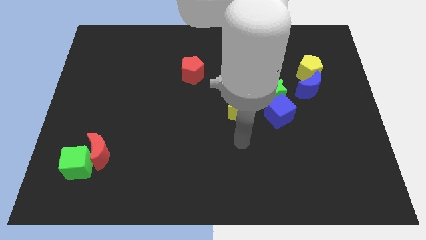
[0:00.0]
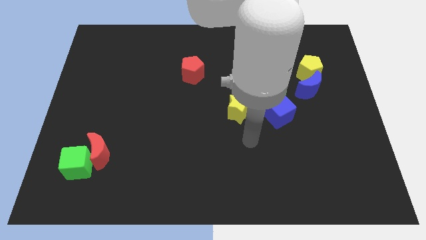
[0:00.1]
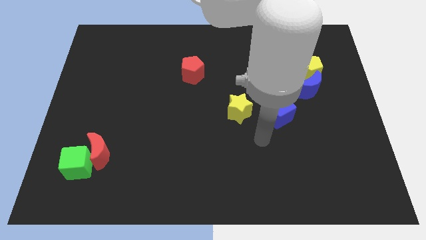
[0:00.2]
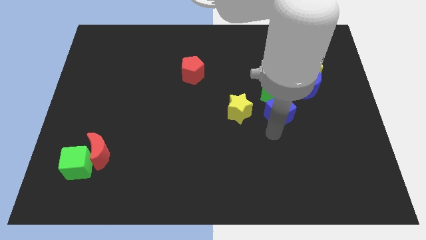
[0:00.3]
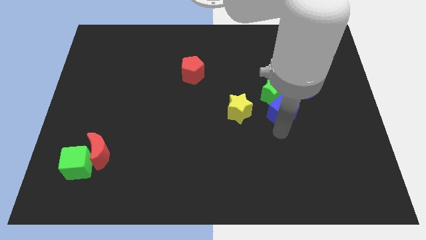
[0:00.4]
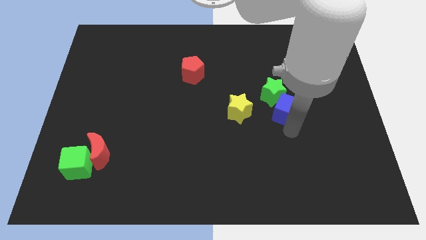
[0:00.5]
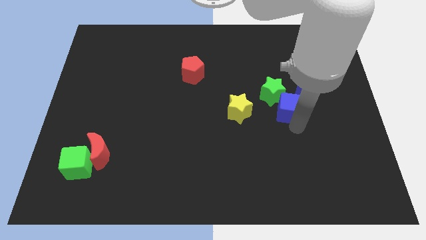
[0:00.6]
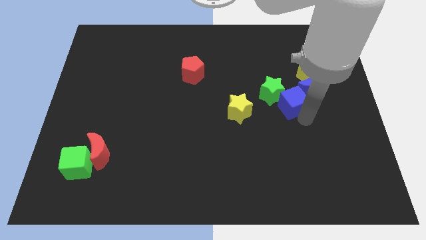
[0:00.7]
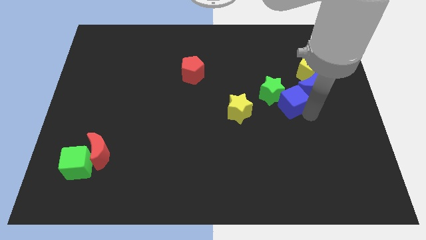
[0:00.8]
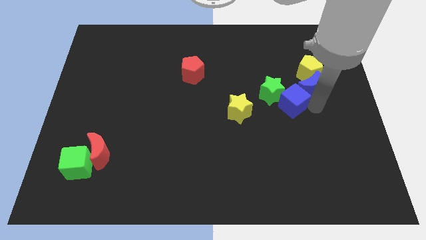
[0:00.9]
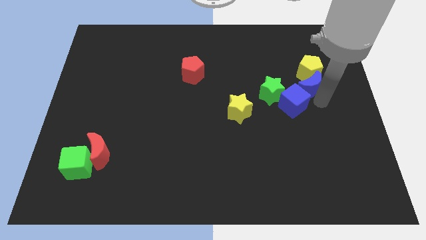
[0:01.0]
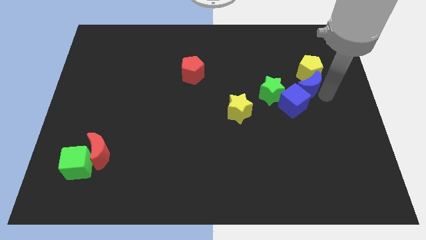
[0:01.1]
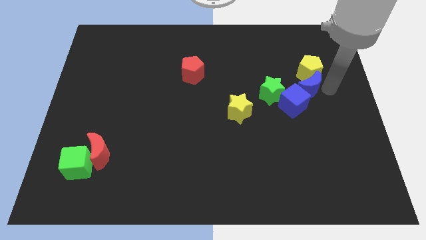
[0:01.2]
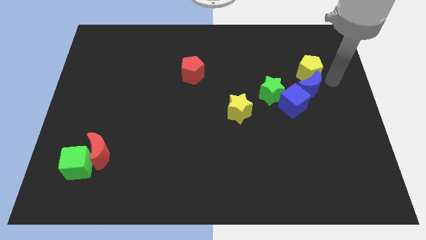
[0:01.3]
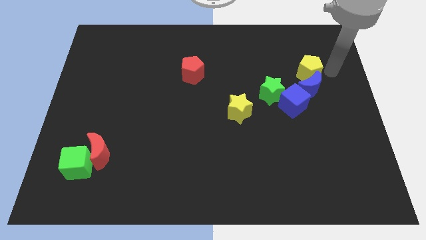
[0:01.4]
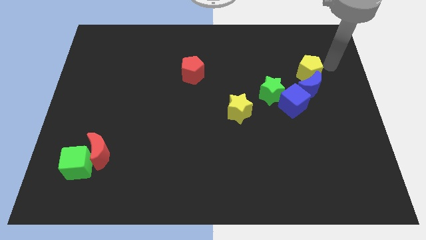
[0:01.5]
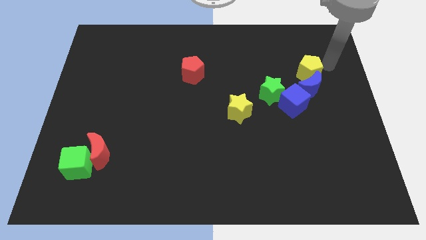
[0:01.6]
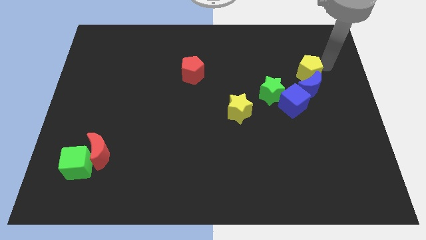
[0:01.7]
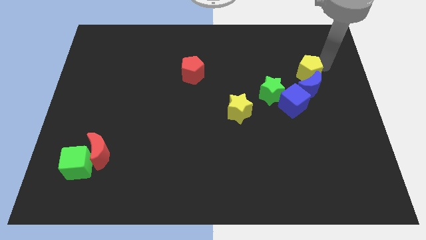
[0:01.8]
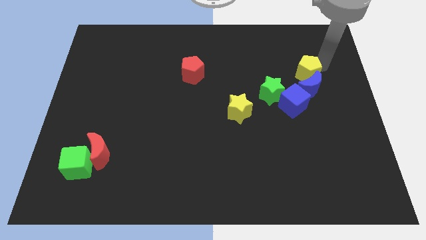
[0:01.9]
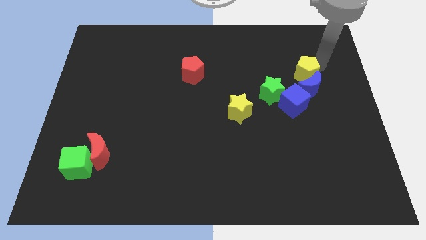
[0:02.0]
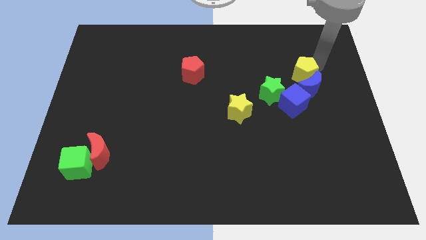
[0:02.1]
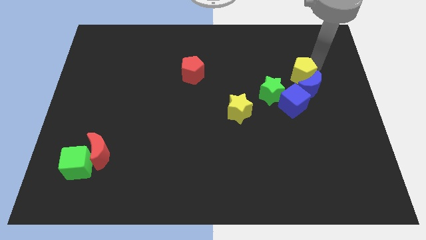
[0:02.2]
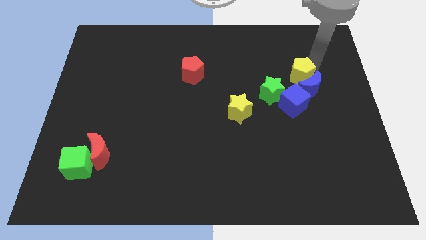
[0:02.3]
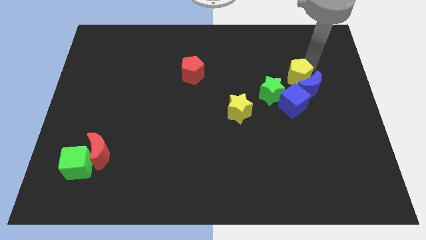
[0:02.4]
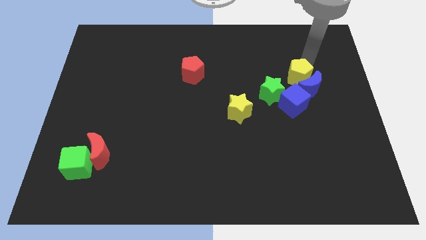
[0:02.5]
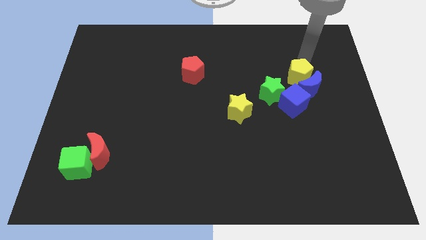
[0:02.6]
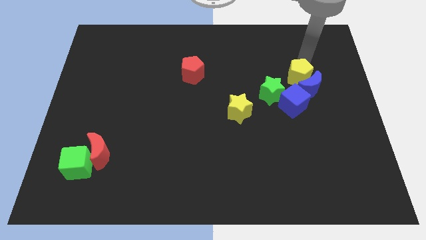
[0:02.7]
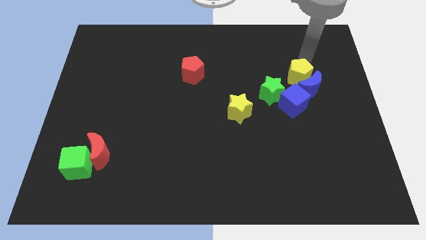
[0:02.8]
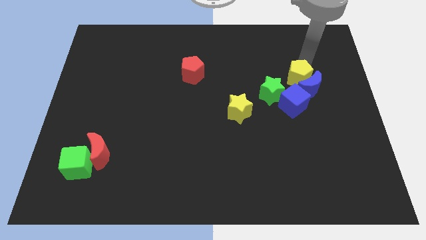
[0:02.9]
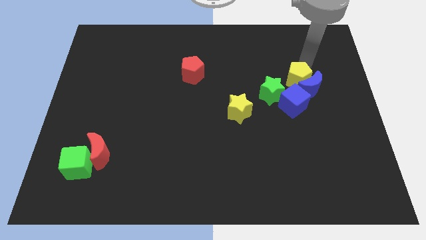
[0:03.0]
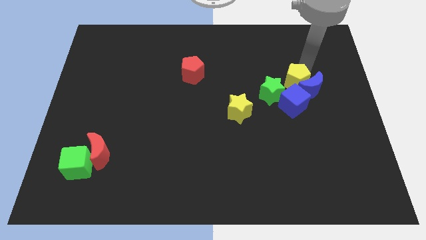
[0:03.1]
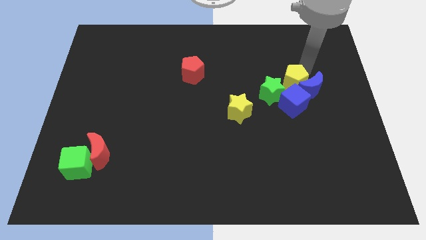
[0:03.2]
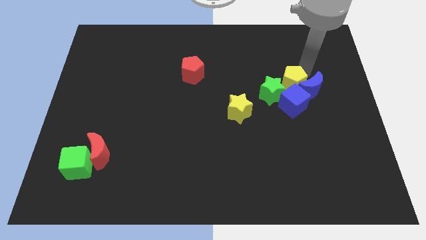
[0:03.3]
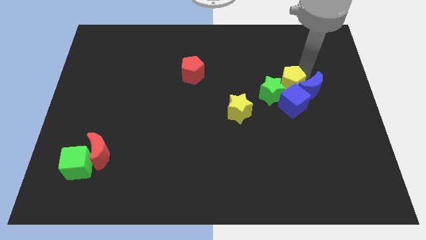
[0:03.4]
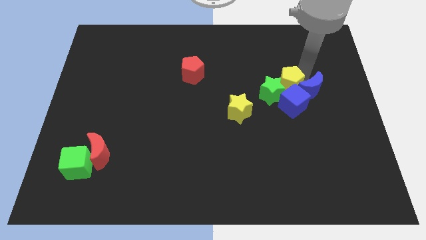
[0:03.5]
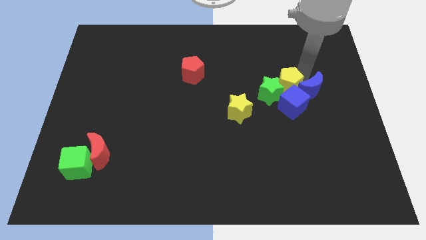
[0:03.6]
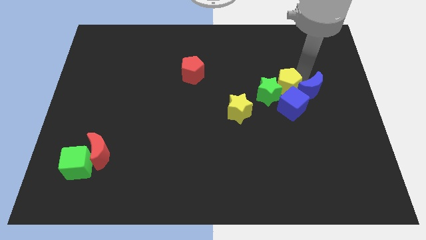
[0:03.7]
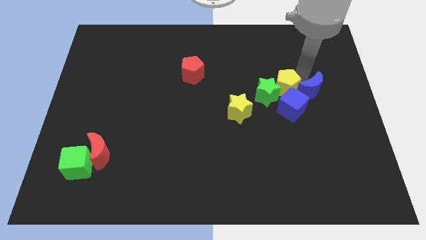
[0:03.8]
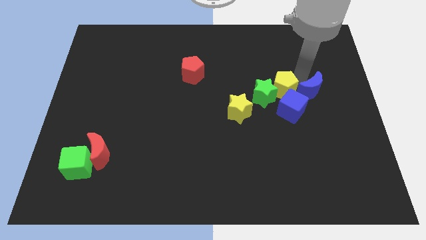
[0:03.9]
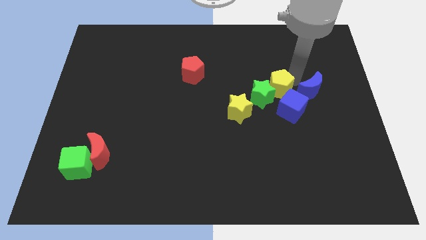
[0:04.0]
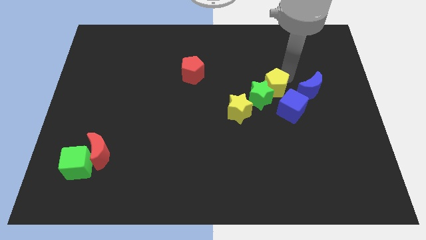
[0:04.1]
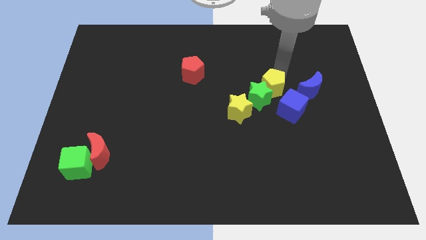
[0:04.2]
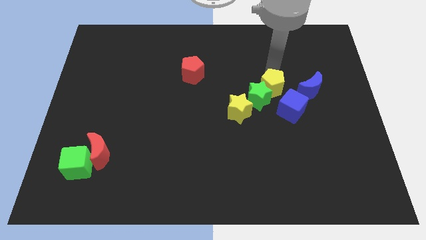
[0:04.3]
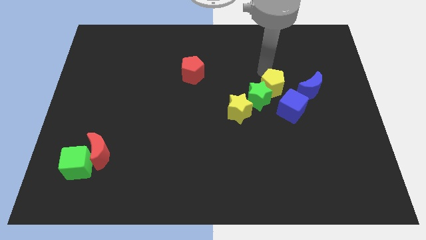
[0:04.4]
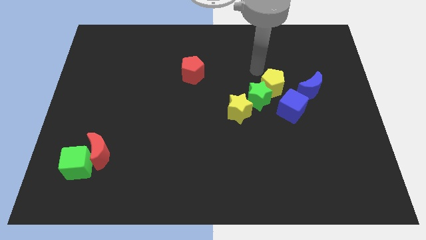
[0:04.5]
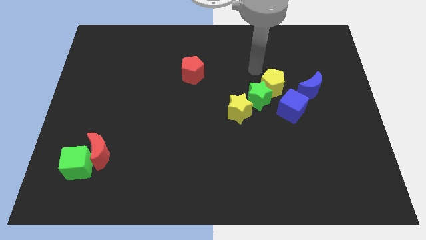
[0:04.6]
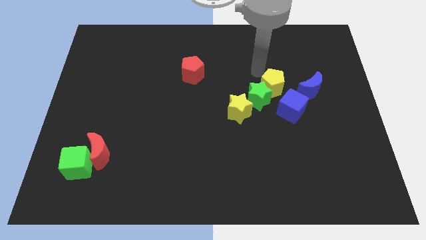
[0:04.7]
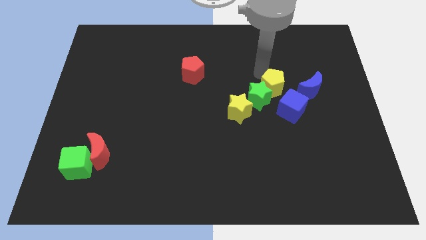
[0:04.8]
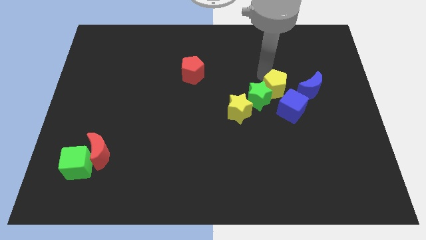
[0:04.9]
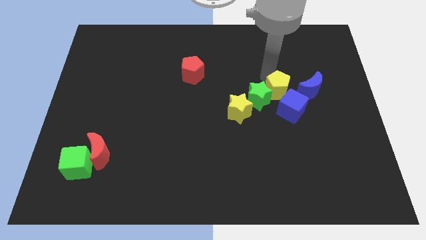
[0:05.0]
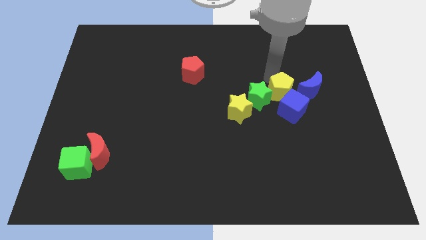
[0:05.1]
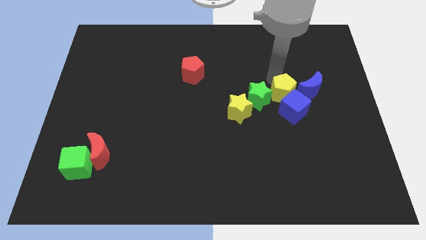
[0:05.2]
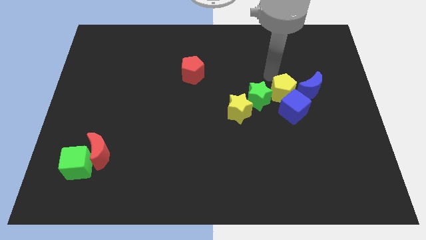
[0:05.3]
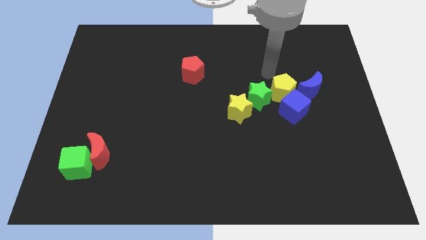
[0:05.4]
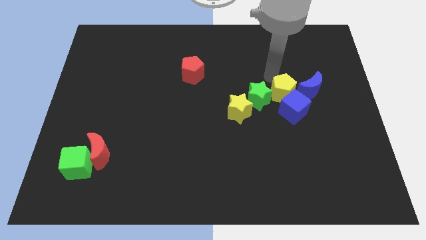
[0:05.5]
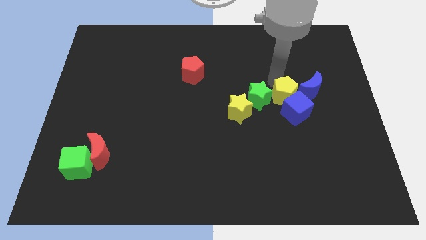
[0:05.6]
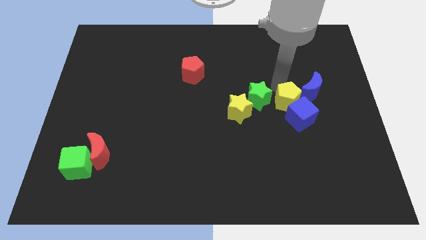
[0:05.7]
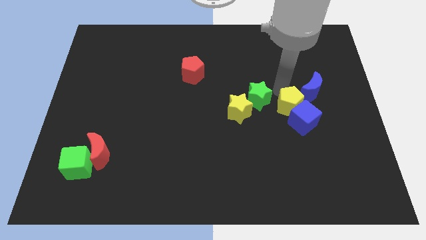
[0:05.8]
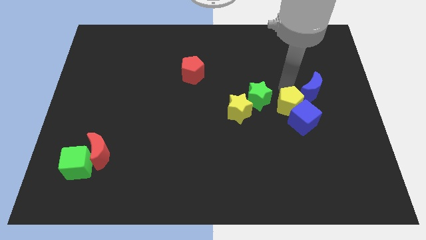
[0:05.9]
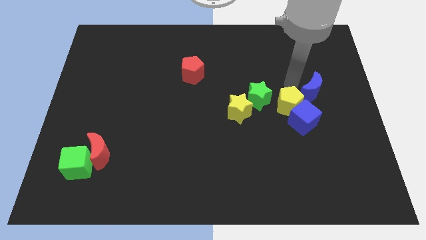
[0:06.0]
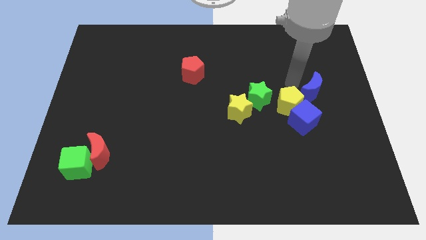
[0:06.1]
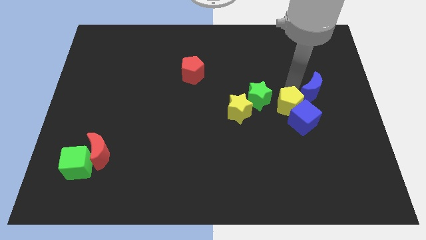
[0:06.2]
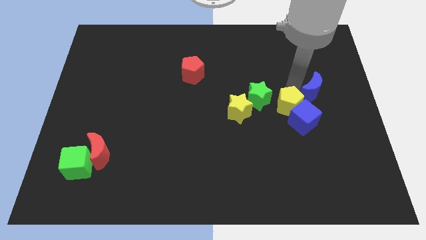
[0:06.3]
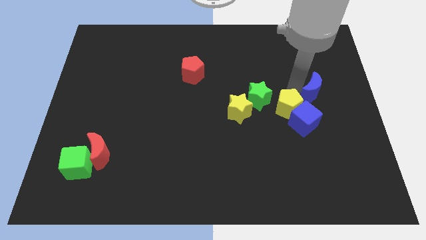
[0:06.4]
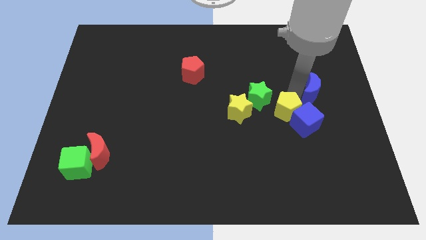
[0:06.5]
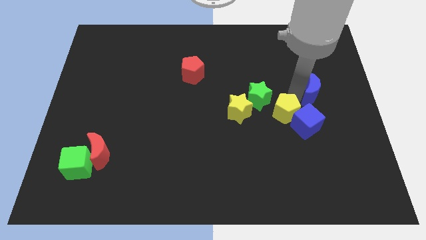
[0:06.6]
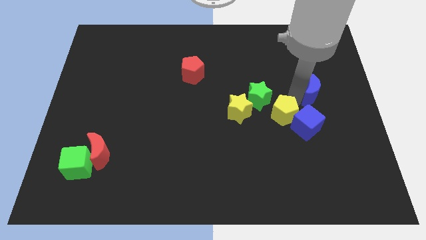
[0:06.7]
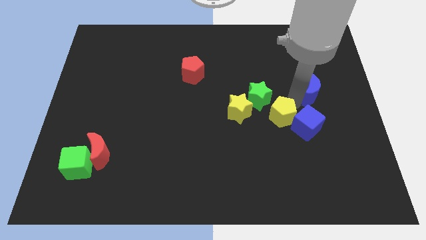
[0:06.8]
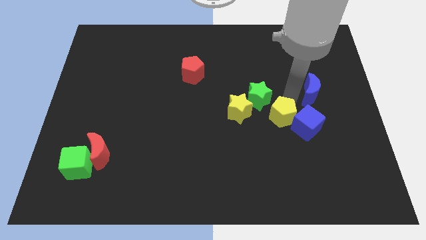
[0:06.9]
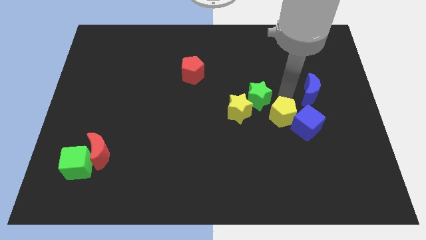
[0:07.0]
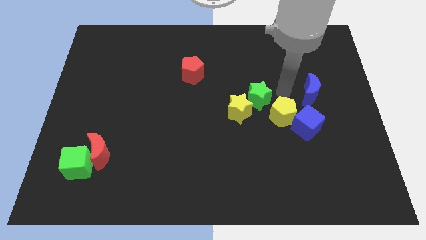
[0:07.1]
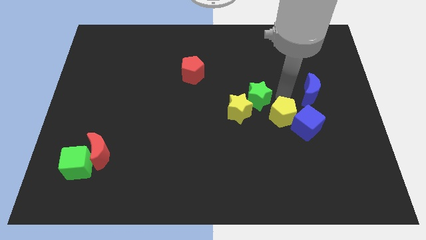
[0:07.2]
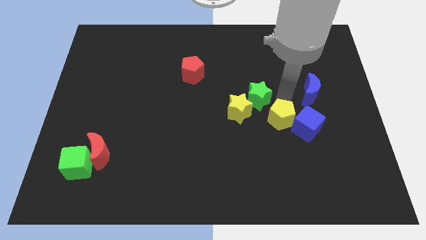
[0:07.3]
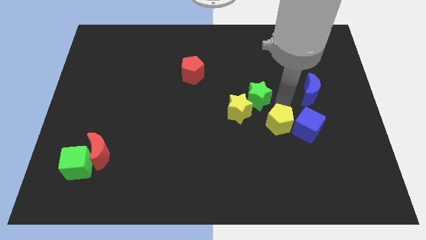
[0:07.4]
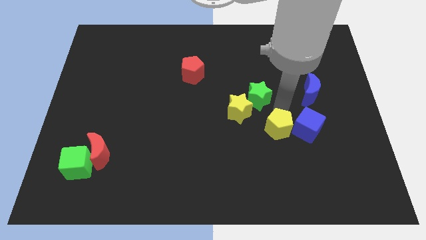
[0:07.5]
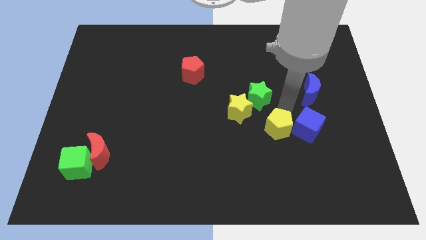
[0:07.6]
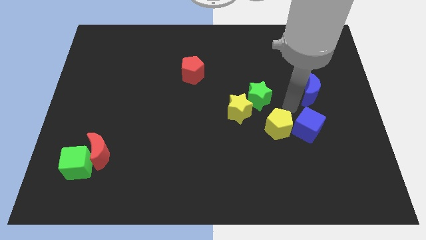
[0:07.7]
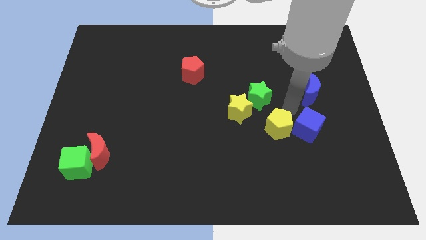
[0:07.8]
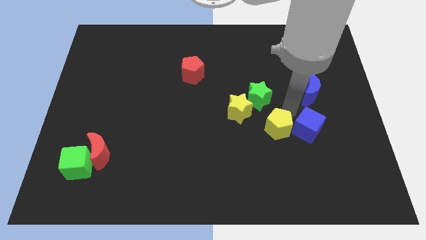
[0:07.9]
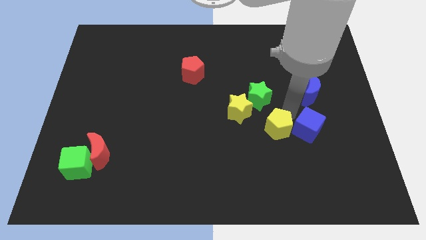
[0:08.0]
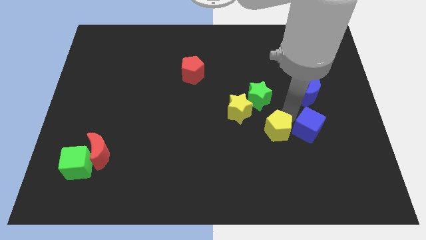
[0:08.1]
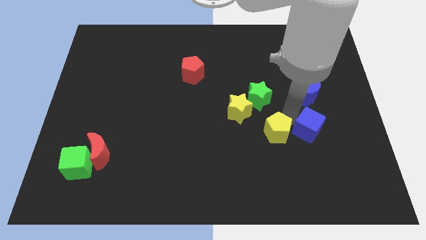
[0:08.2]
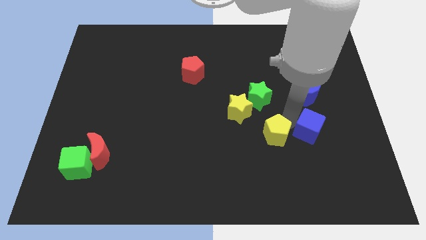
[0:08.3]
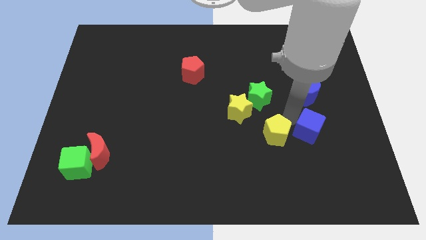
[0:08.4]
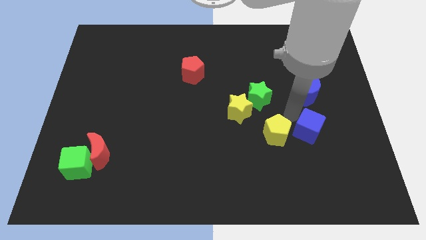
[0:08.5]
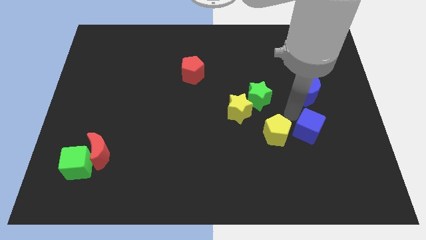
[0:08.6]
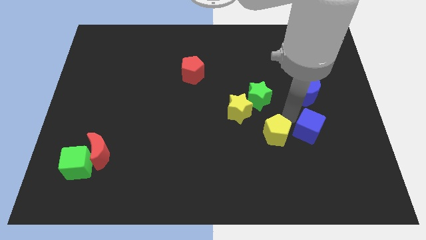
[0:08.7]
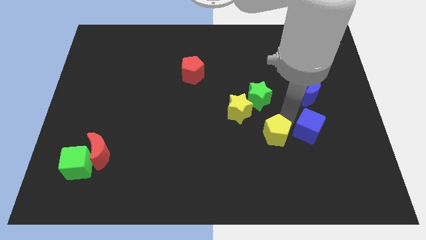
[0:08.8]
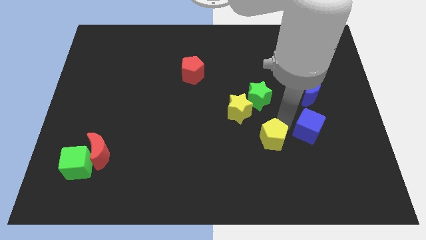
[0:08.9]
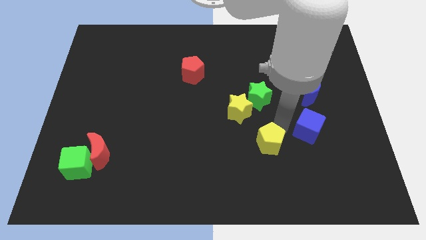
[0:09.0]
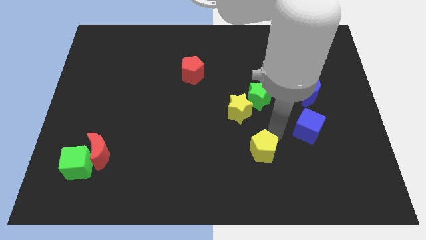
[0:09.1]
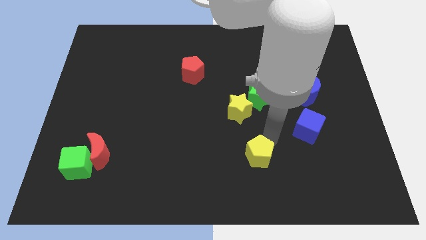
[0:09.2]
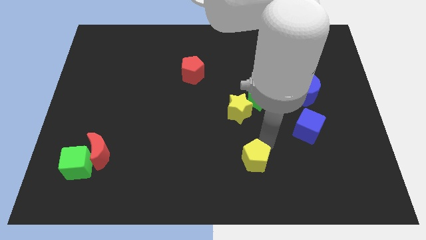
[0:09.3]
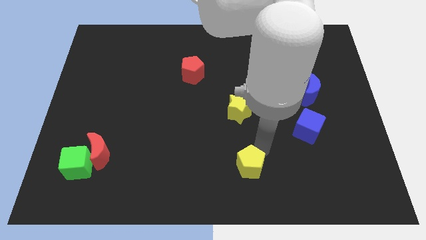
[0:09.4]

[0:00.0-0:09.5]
slide the yellow pentagon to the bottom side
